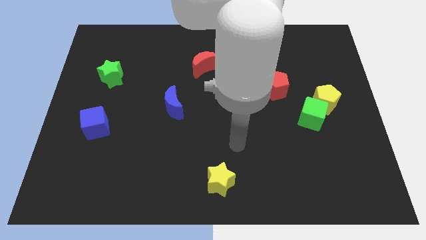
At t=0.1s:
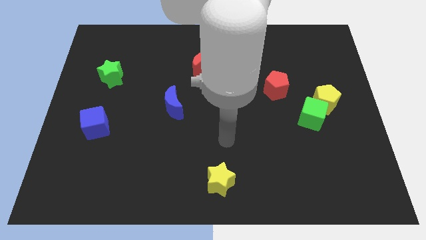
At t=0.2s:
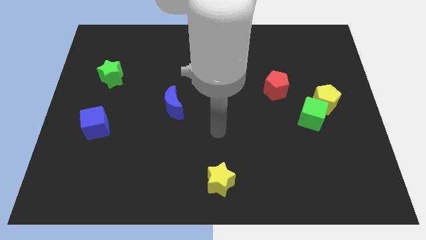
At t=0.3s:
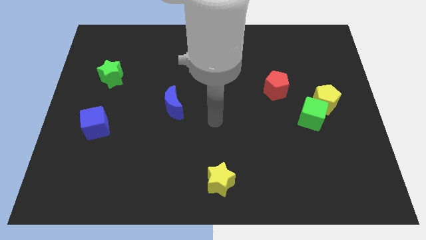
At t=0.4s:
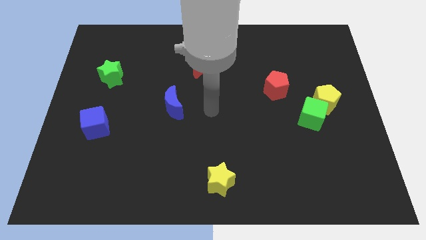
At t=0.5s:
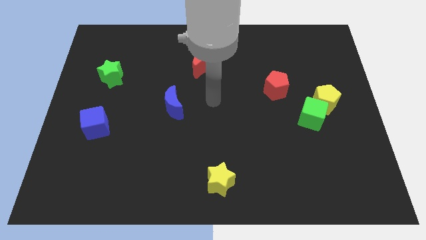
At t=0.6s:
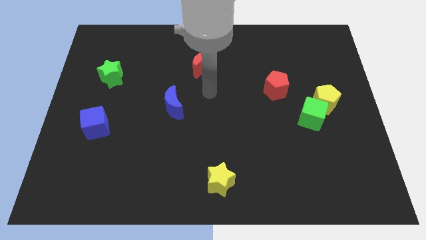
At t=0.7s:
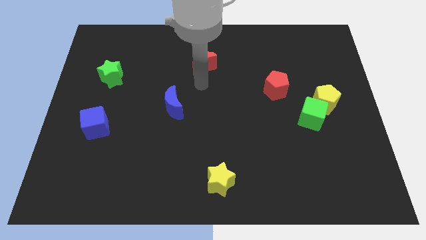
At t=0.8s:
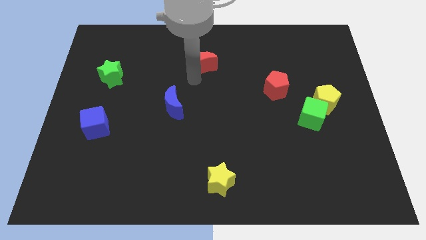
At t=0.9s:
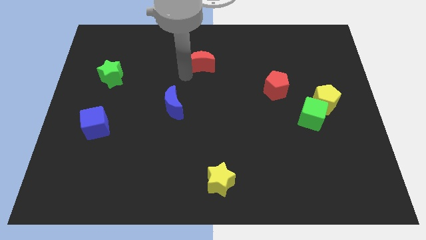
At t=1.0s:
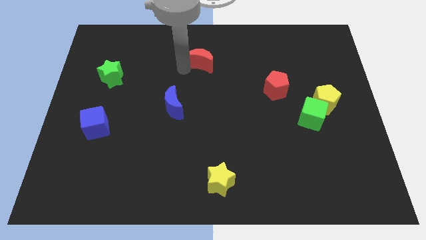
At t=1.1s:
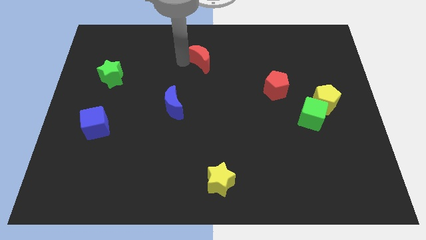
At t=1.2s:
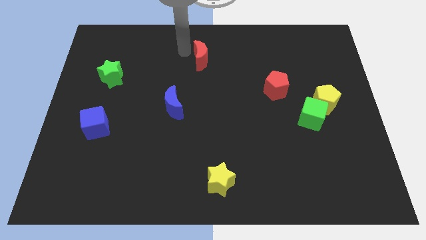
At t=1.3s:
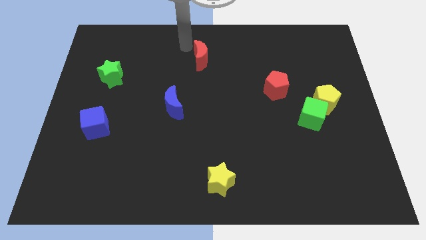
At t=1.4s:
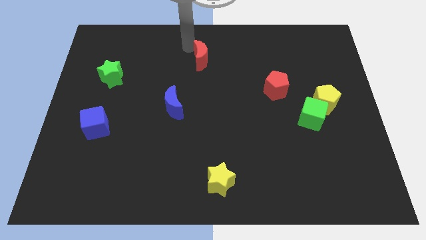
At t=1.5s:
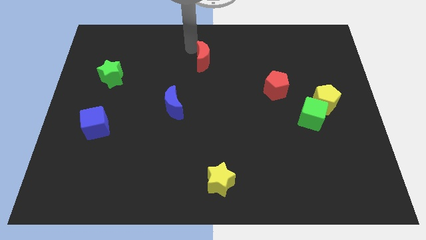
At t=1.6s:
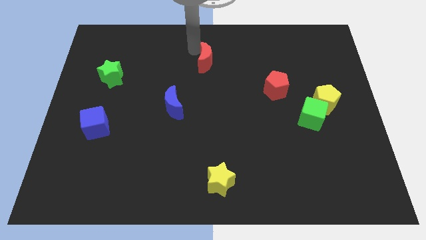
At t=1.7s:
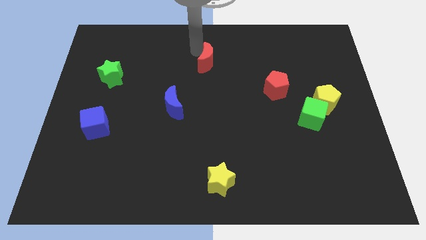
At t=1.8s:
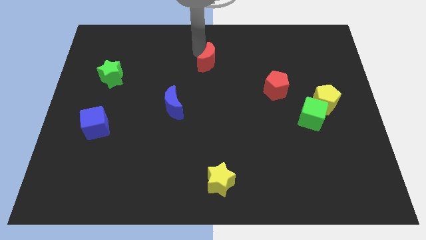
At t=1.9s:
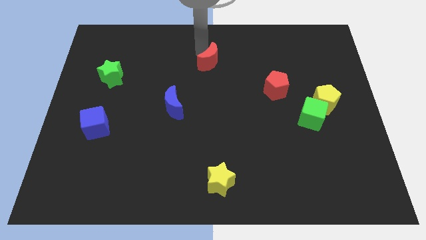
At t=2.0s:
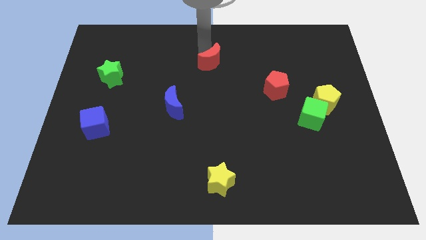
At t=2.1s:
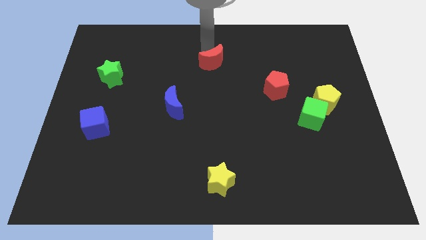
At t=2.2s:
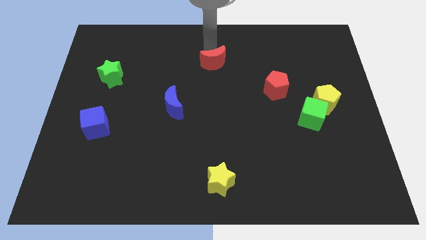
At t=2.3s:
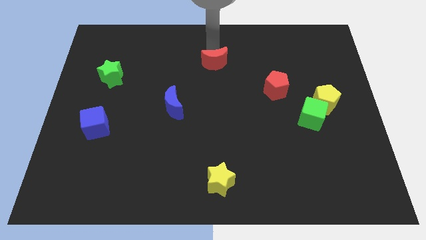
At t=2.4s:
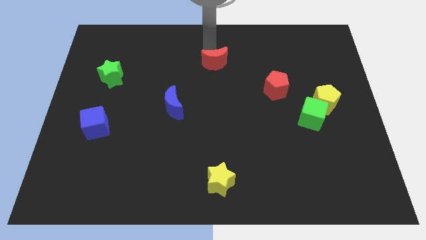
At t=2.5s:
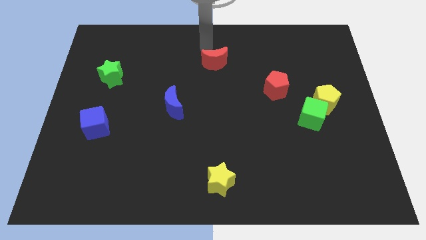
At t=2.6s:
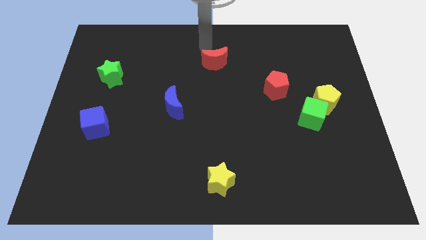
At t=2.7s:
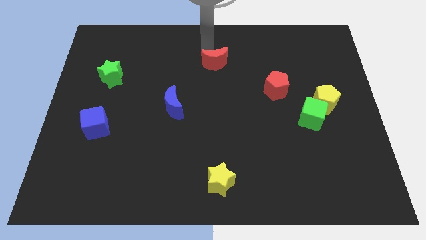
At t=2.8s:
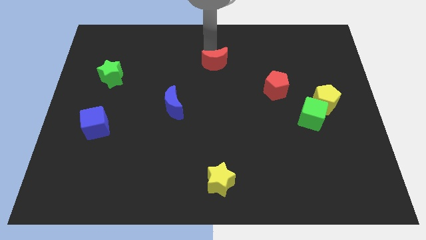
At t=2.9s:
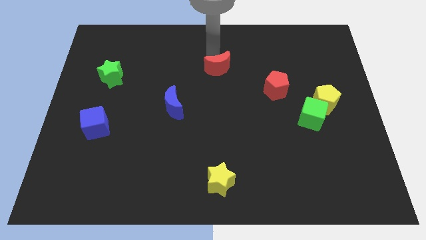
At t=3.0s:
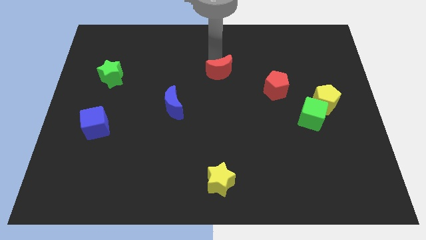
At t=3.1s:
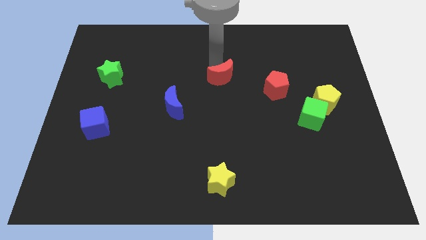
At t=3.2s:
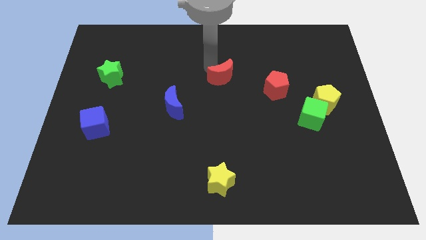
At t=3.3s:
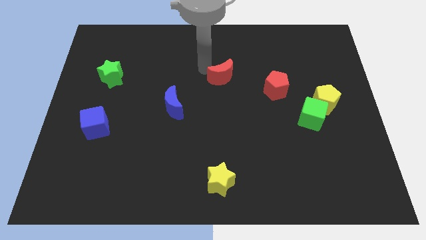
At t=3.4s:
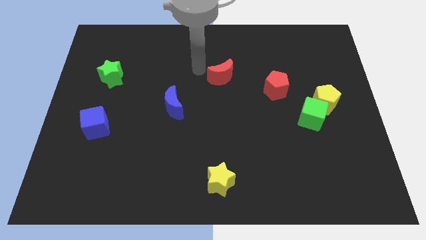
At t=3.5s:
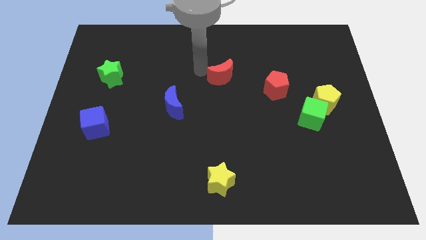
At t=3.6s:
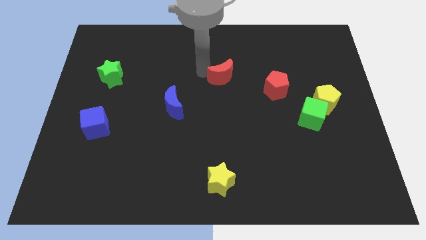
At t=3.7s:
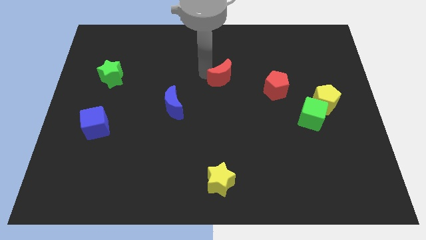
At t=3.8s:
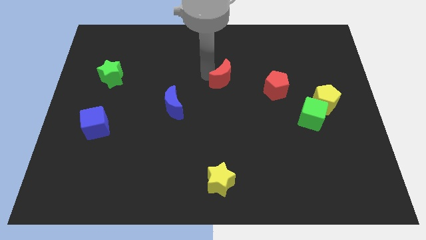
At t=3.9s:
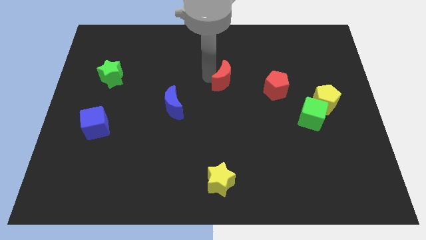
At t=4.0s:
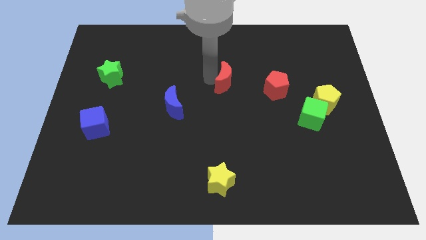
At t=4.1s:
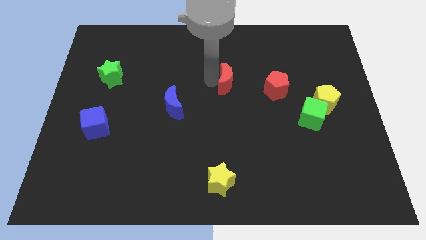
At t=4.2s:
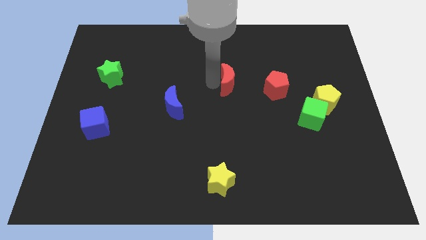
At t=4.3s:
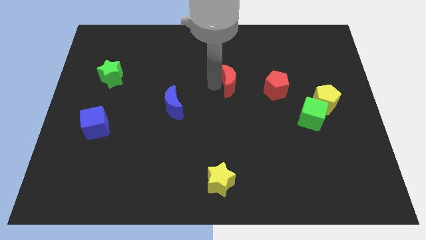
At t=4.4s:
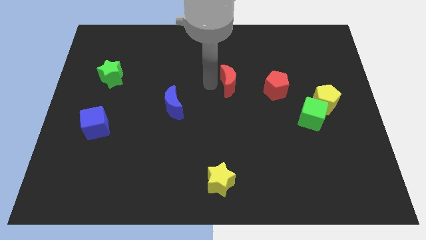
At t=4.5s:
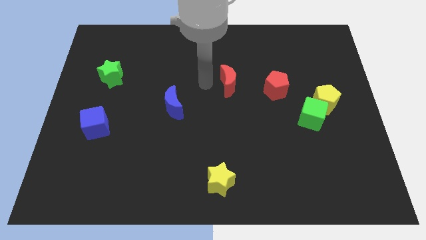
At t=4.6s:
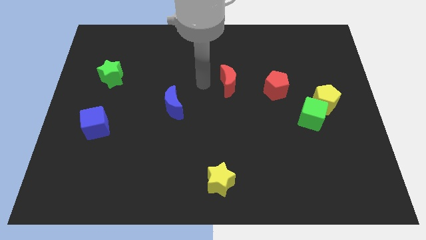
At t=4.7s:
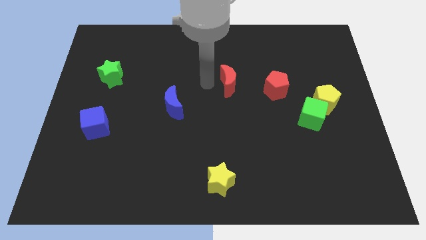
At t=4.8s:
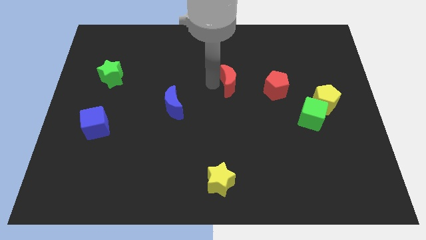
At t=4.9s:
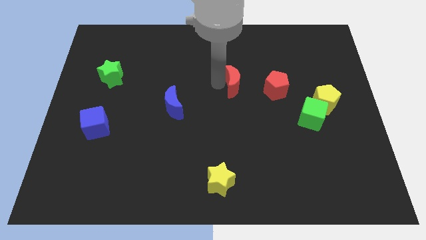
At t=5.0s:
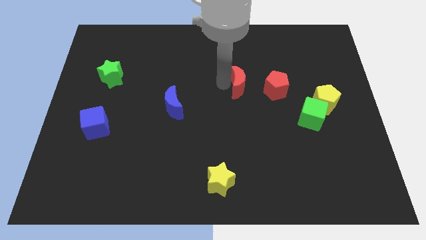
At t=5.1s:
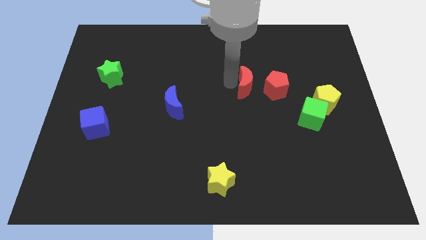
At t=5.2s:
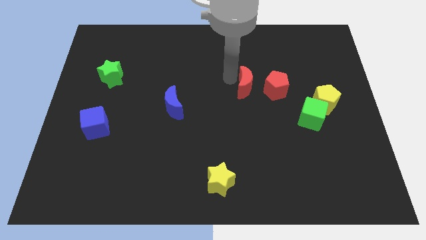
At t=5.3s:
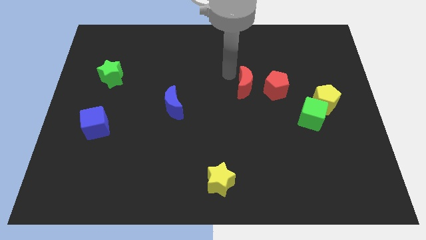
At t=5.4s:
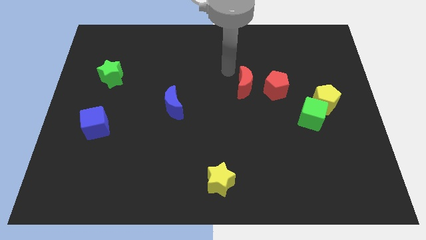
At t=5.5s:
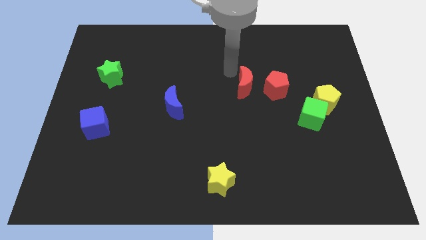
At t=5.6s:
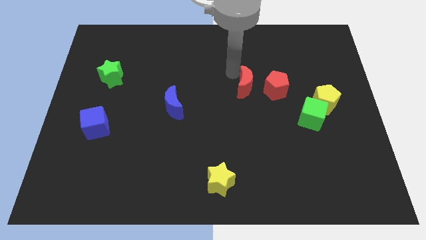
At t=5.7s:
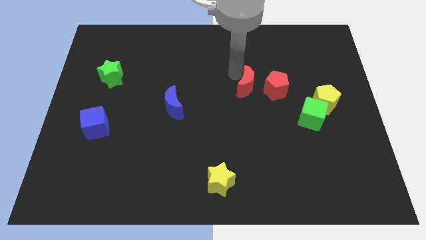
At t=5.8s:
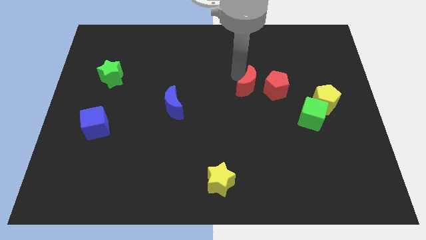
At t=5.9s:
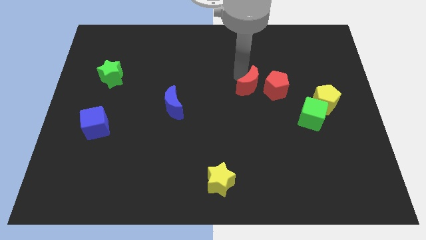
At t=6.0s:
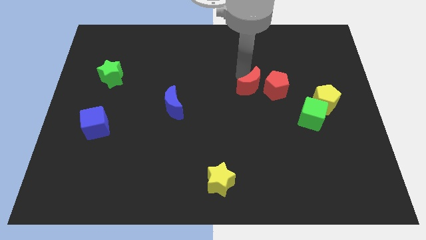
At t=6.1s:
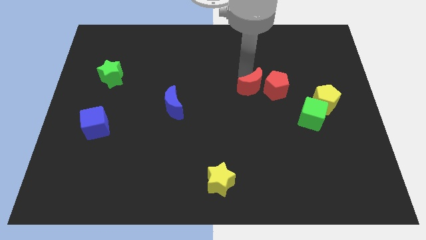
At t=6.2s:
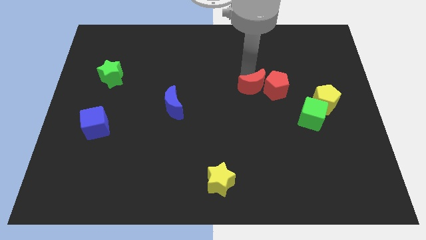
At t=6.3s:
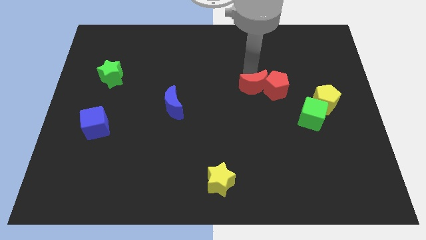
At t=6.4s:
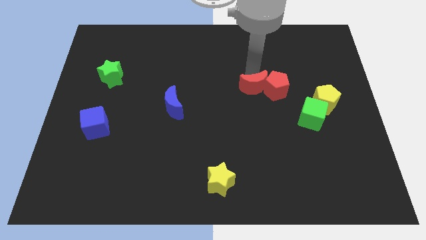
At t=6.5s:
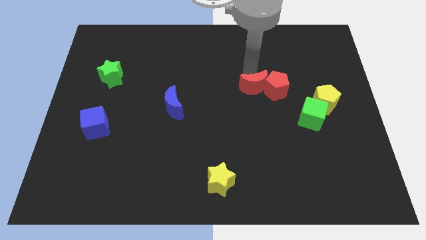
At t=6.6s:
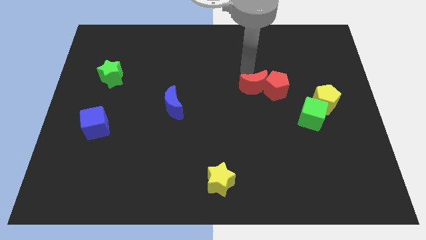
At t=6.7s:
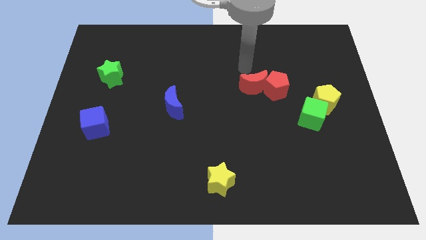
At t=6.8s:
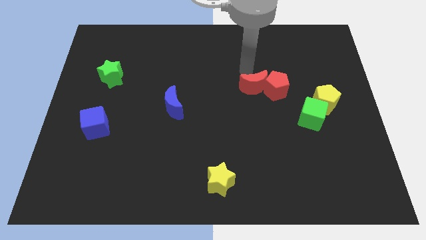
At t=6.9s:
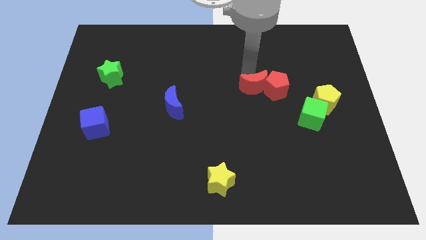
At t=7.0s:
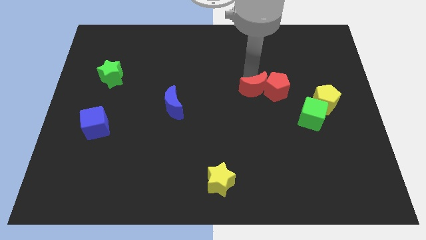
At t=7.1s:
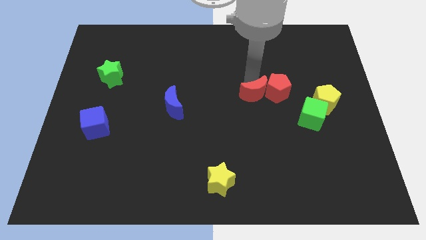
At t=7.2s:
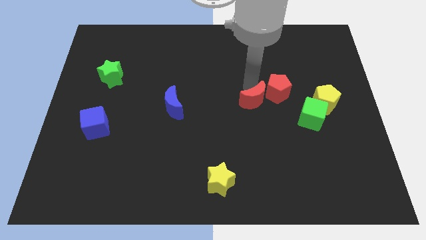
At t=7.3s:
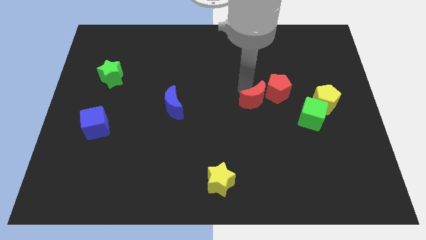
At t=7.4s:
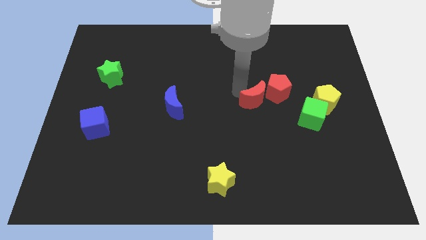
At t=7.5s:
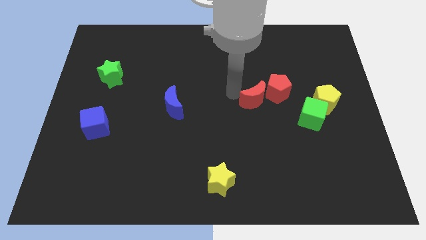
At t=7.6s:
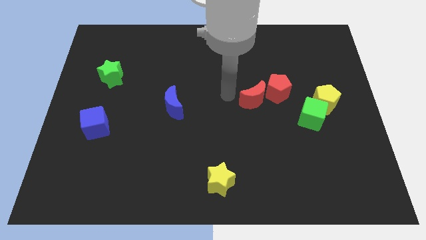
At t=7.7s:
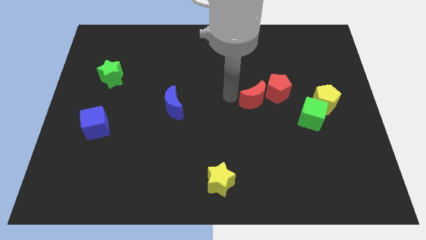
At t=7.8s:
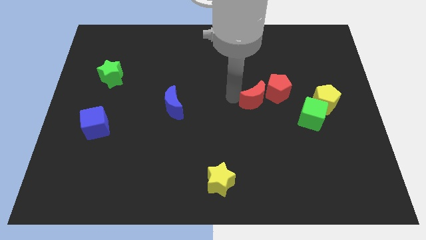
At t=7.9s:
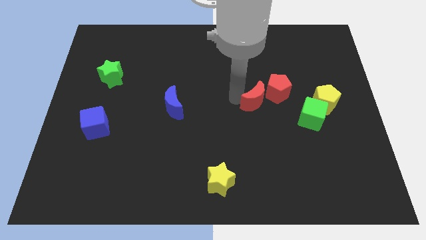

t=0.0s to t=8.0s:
move the red moon to the left side of the yellow pentagon
